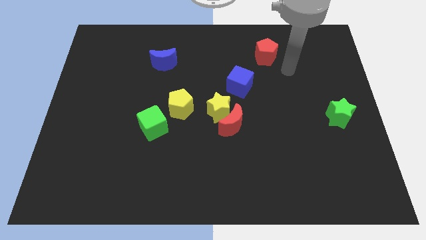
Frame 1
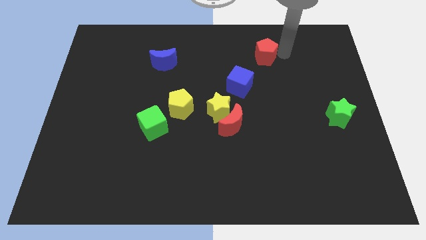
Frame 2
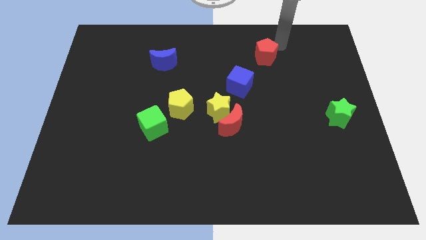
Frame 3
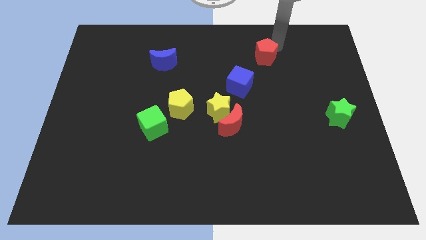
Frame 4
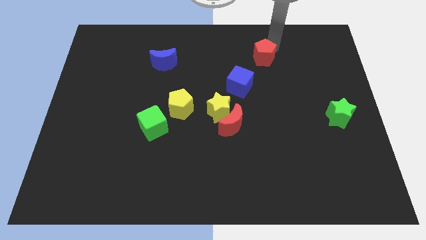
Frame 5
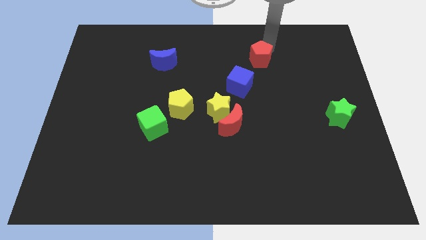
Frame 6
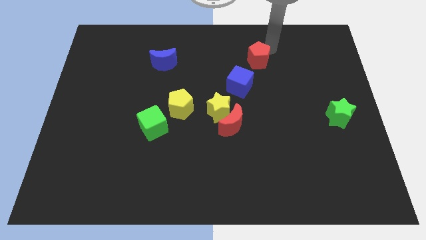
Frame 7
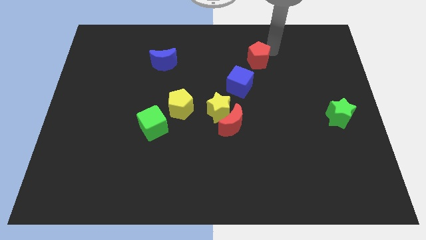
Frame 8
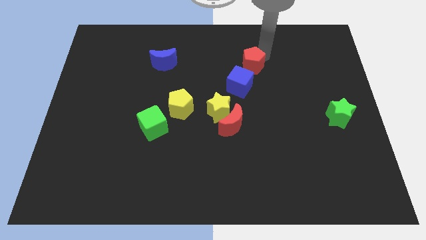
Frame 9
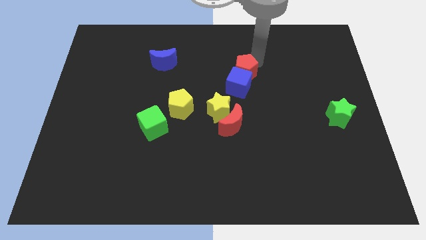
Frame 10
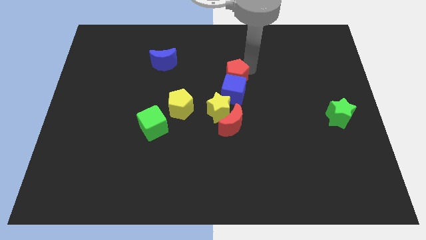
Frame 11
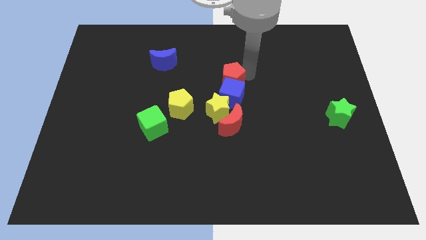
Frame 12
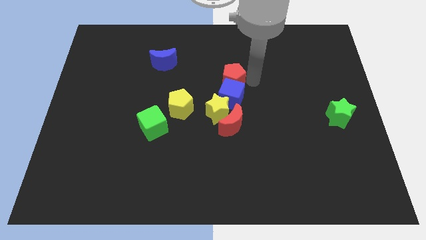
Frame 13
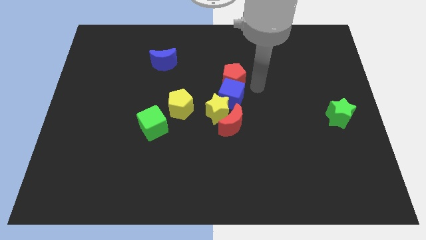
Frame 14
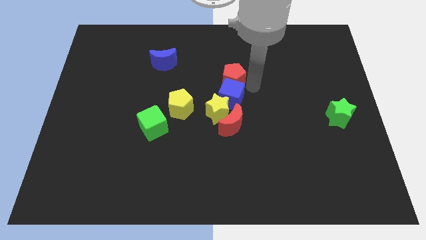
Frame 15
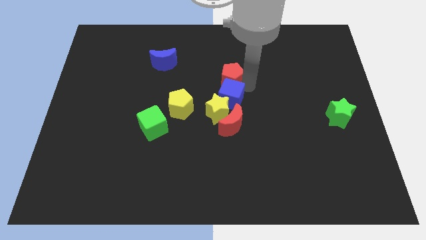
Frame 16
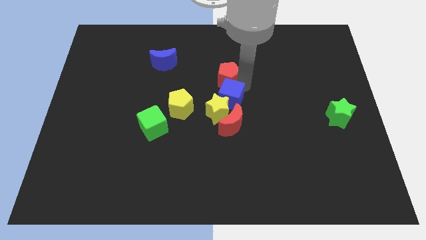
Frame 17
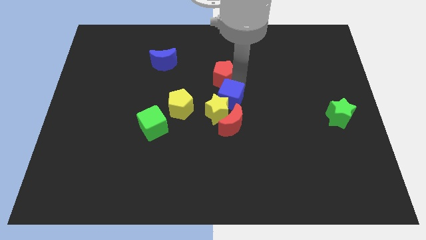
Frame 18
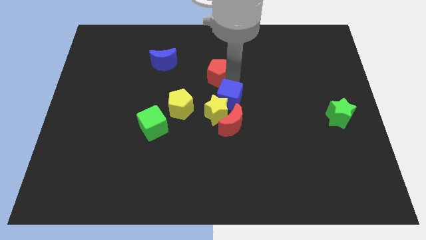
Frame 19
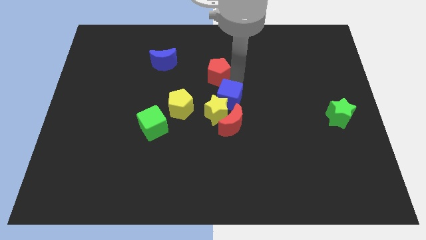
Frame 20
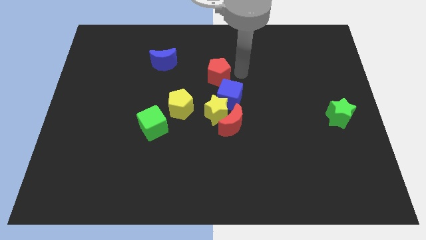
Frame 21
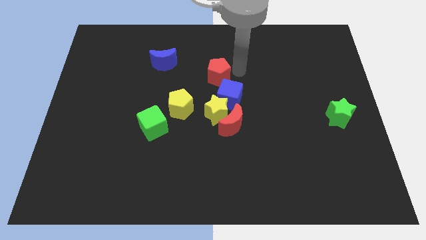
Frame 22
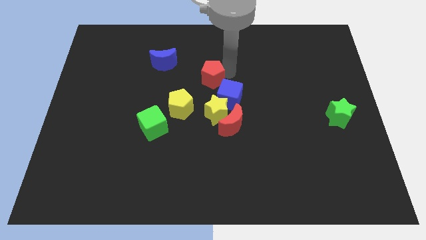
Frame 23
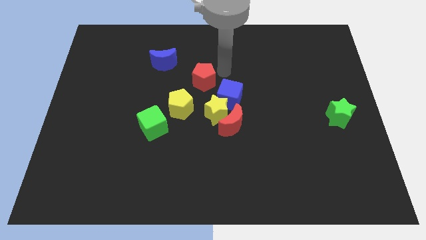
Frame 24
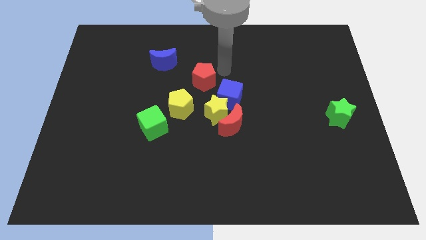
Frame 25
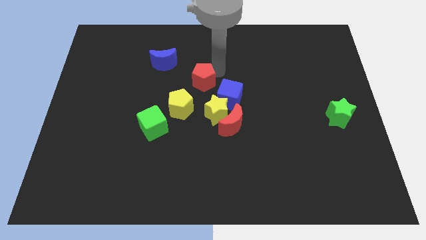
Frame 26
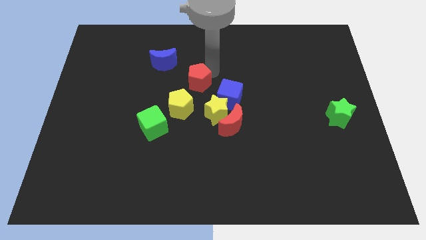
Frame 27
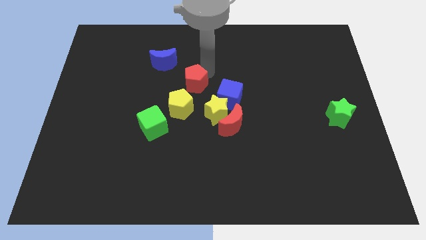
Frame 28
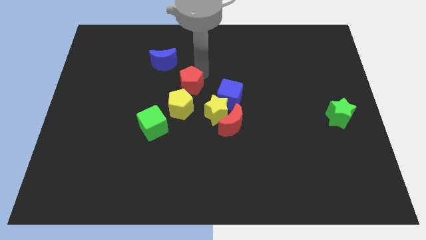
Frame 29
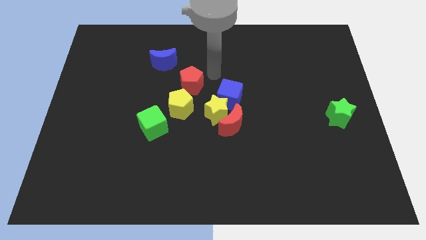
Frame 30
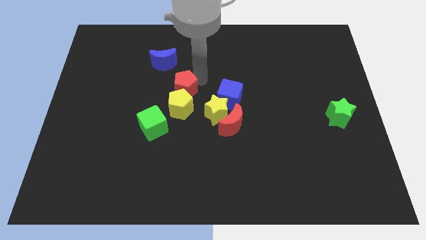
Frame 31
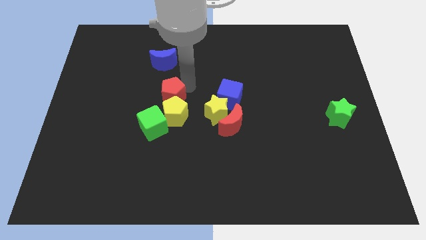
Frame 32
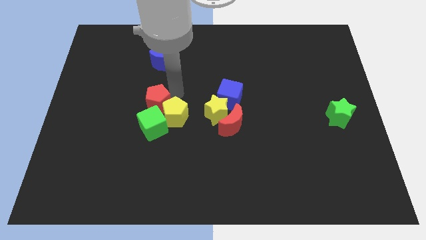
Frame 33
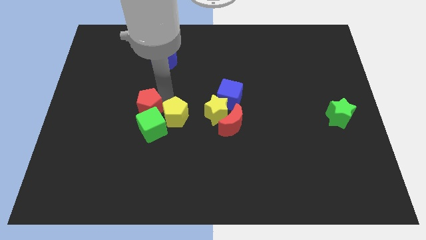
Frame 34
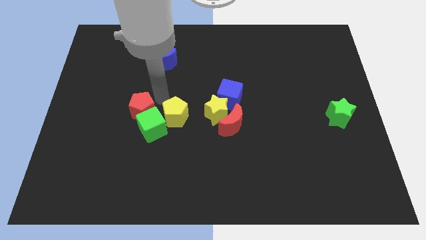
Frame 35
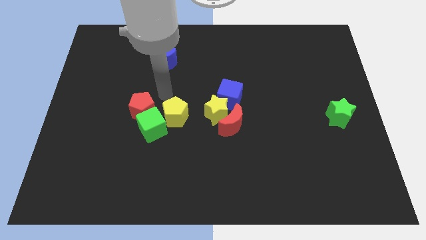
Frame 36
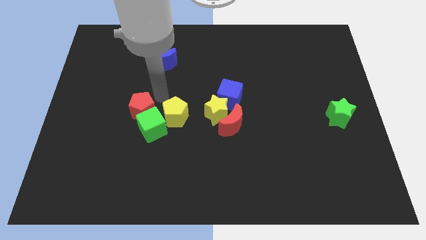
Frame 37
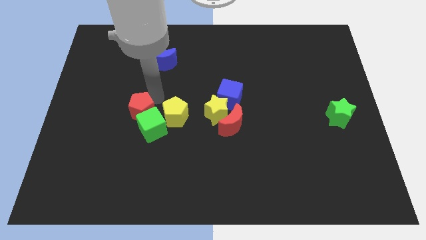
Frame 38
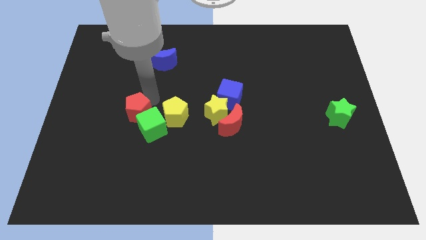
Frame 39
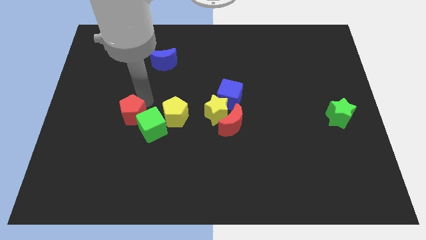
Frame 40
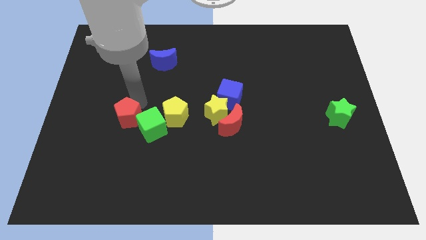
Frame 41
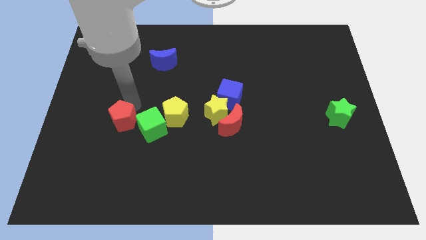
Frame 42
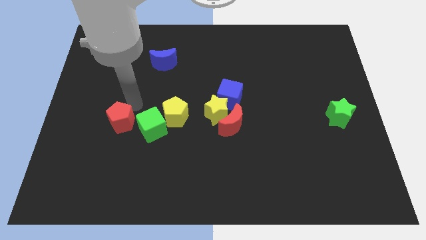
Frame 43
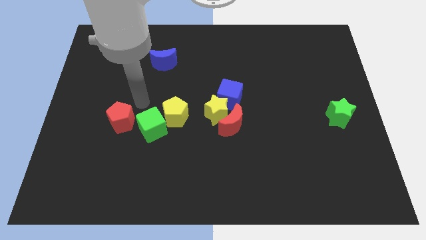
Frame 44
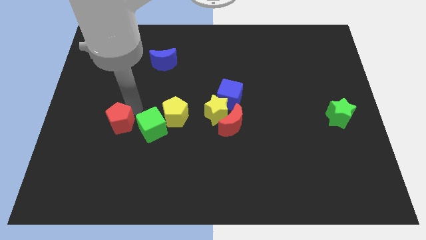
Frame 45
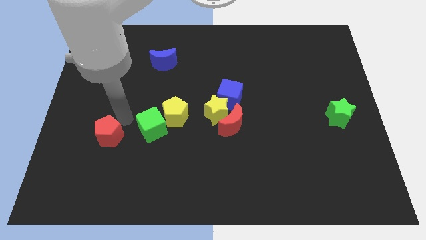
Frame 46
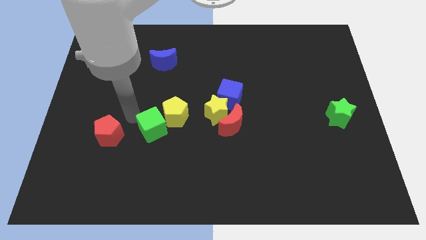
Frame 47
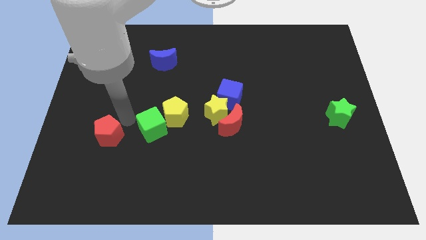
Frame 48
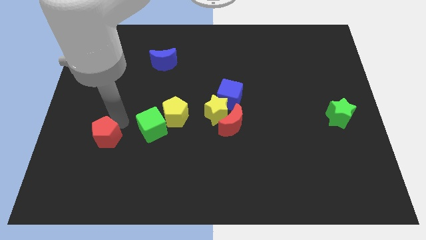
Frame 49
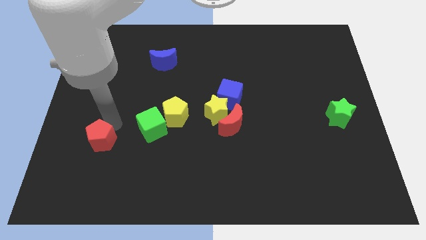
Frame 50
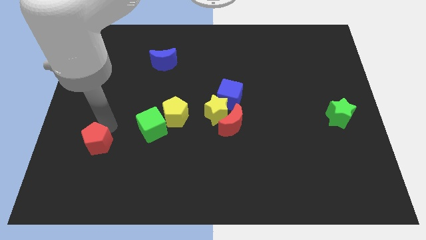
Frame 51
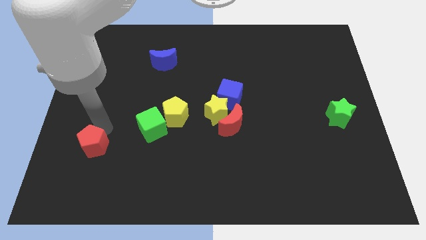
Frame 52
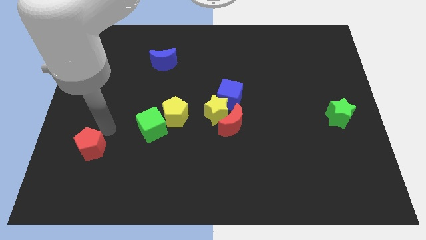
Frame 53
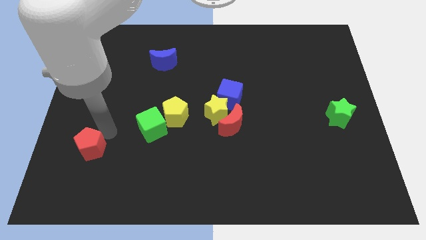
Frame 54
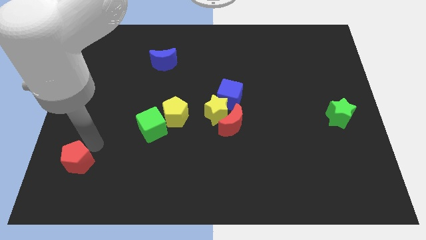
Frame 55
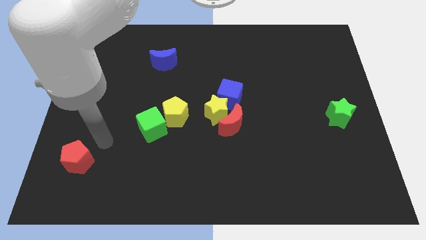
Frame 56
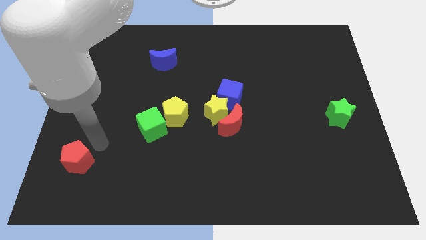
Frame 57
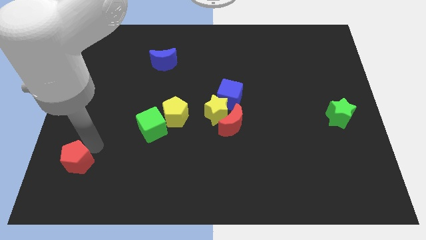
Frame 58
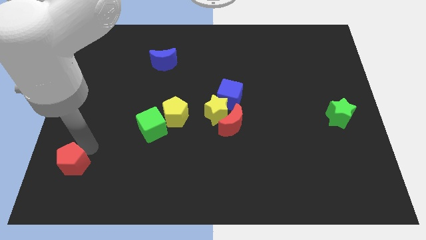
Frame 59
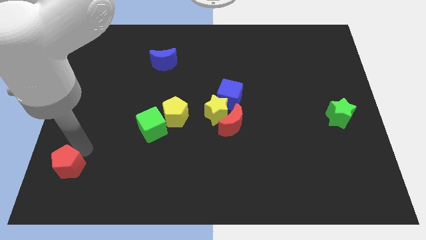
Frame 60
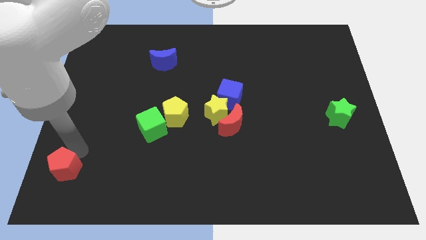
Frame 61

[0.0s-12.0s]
push the red pentagon to the bottom left corner
